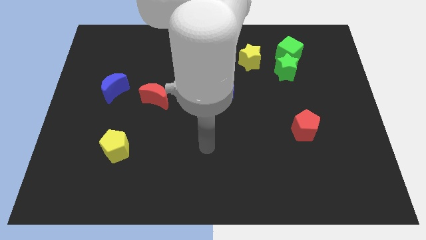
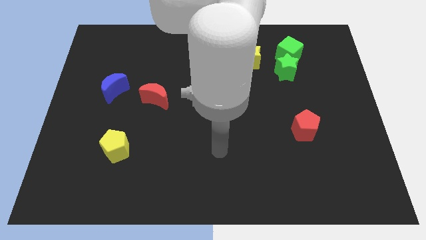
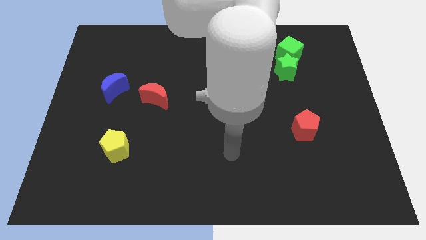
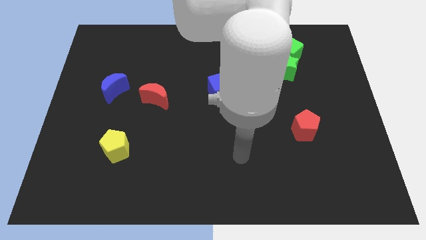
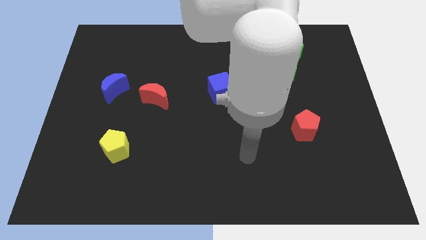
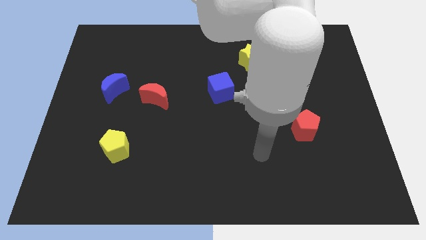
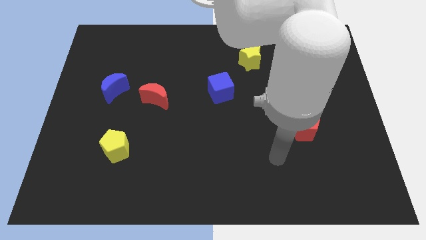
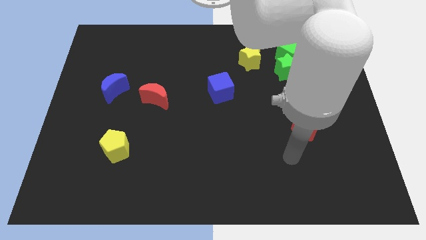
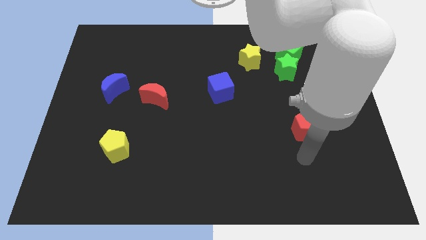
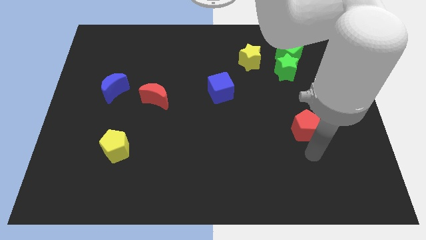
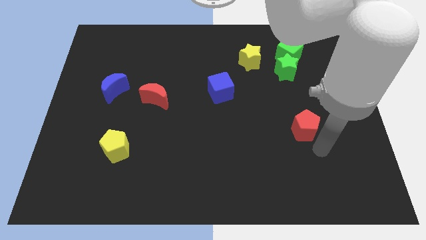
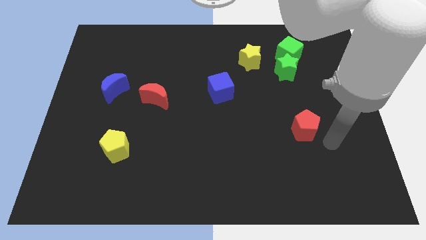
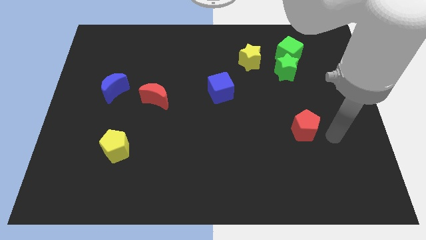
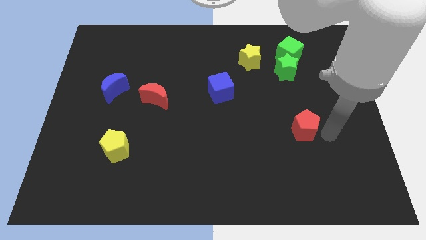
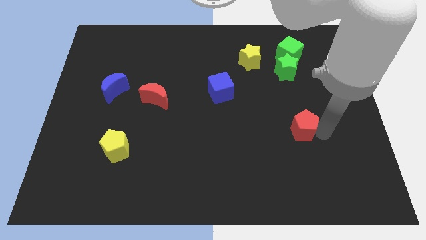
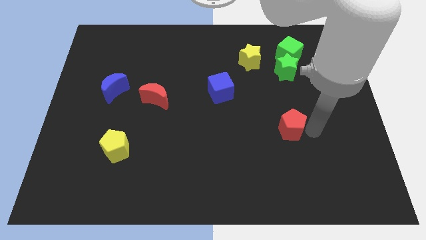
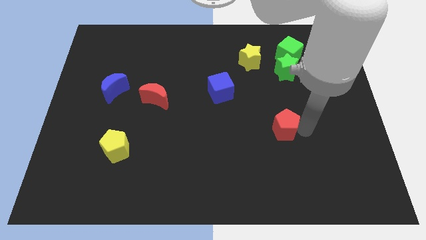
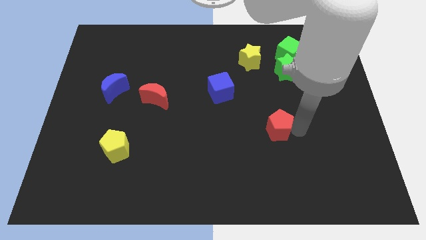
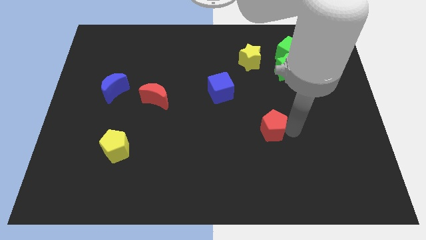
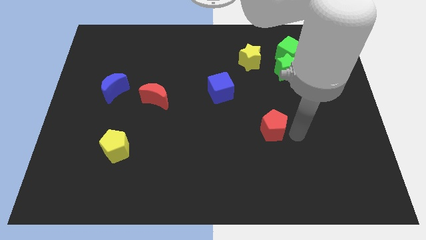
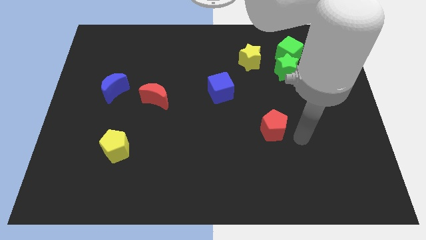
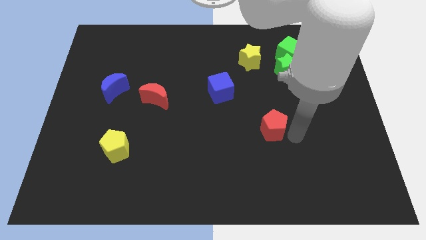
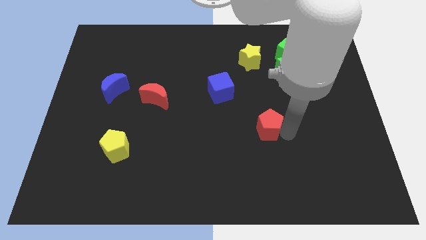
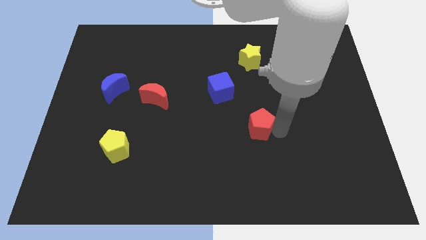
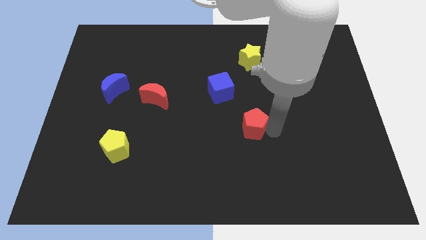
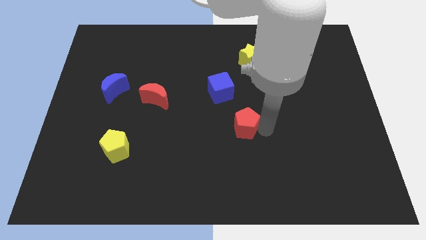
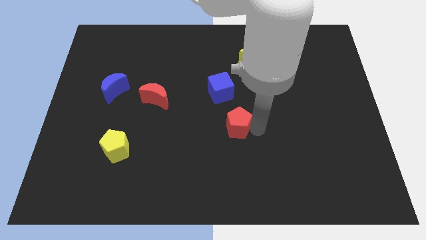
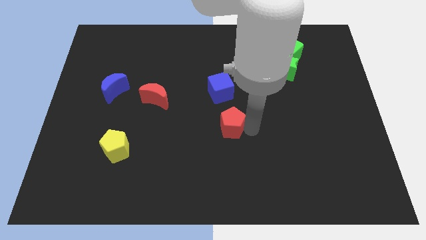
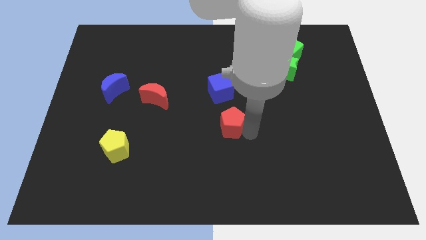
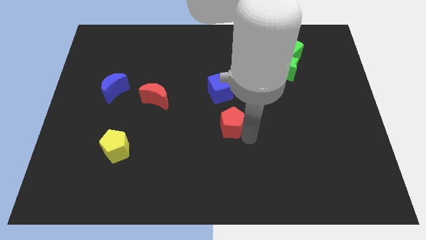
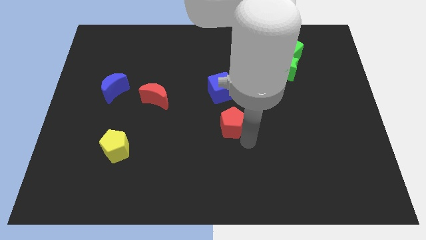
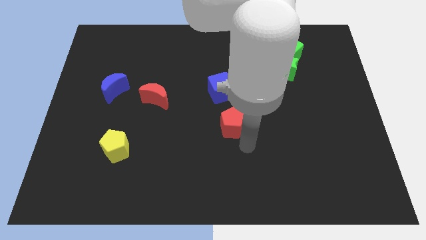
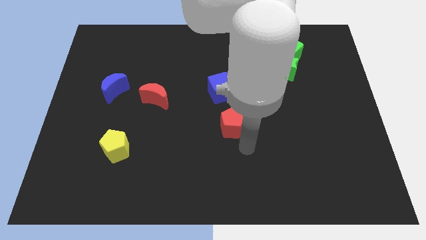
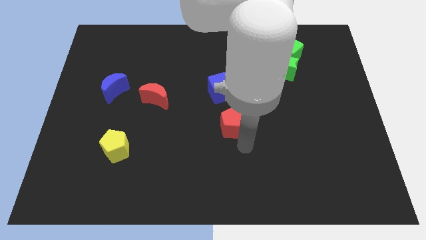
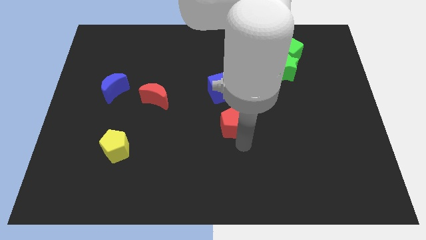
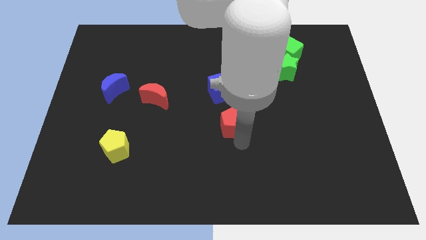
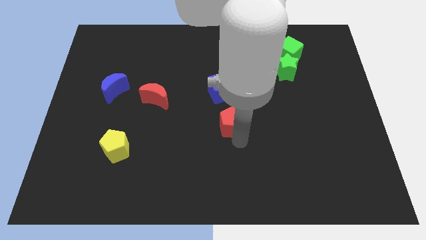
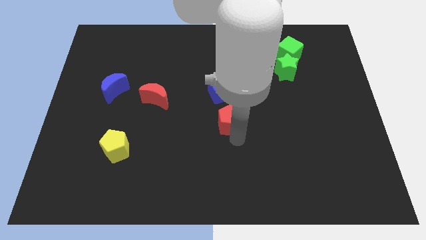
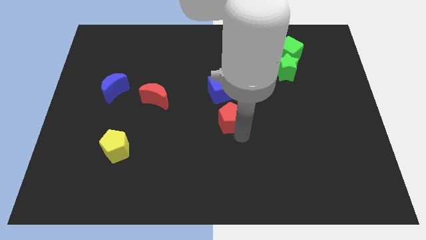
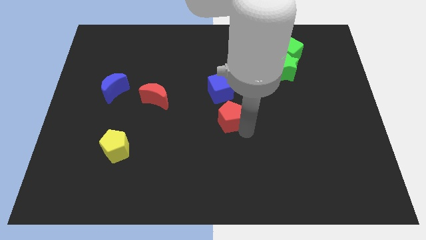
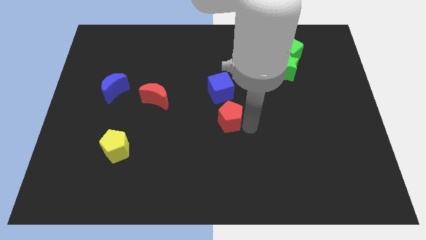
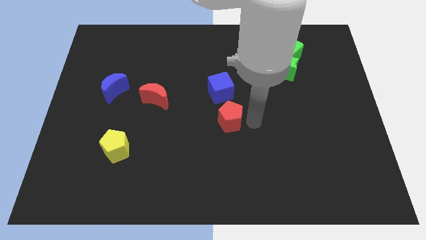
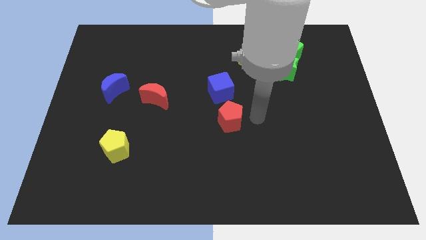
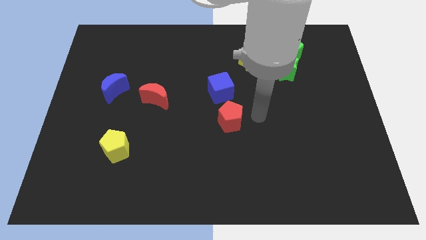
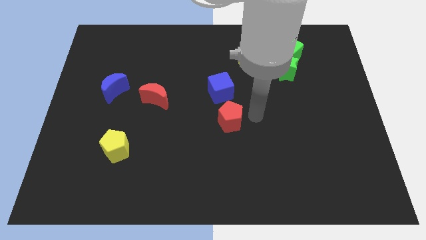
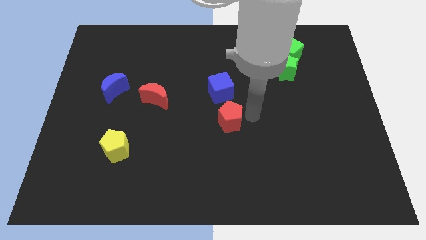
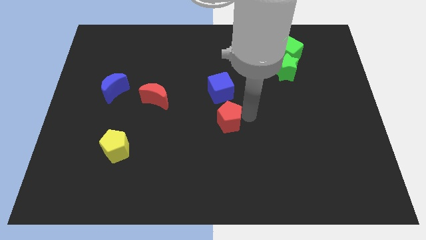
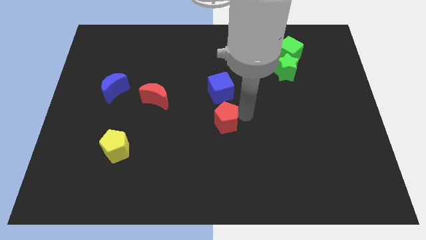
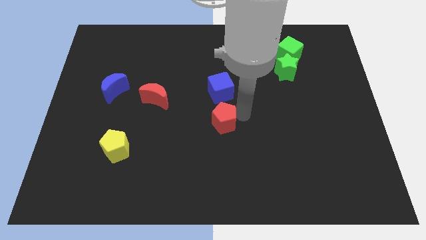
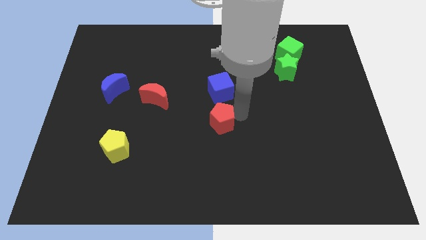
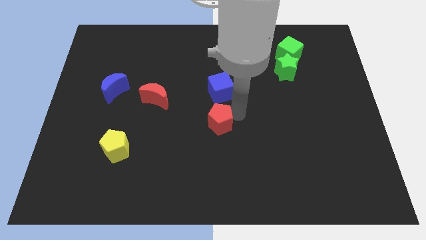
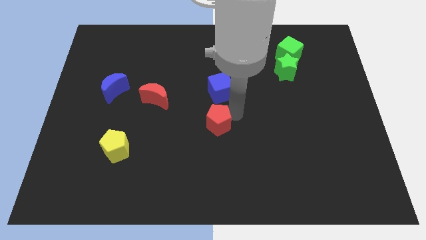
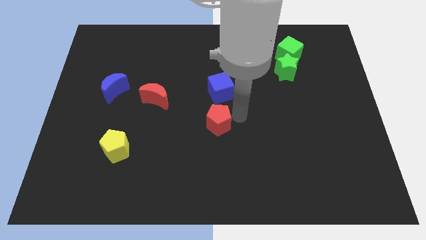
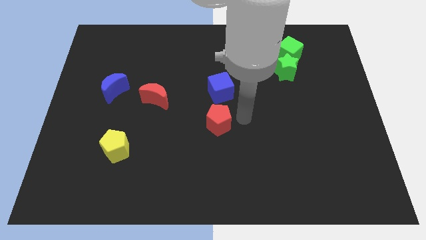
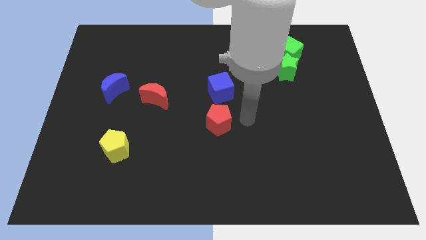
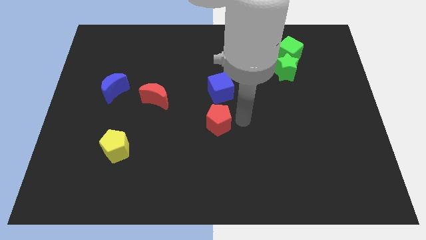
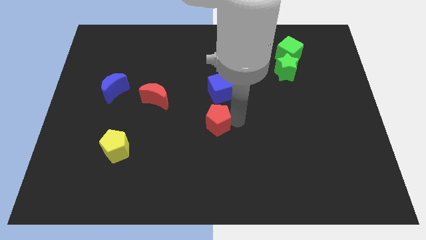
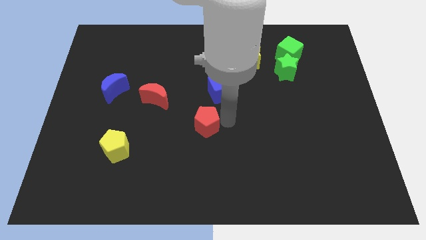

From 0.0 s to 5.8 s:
push the red pentagon left

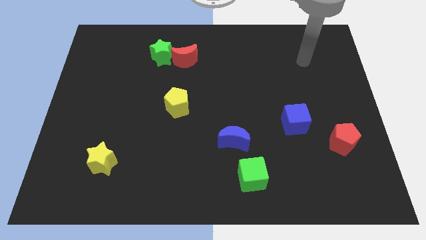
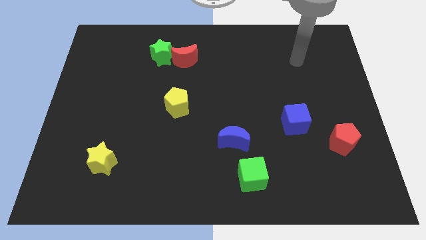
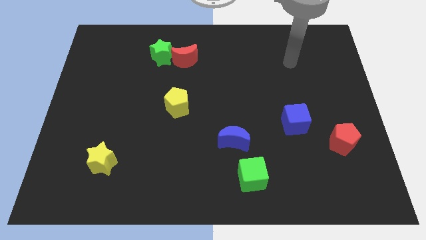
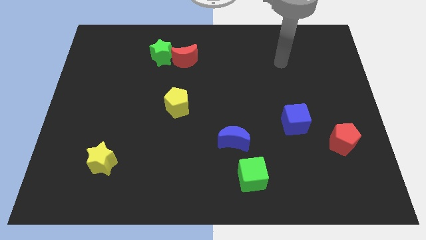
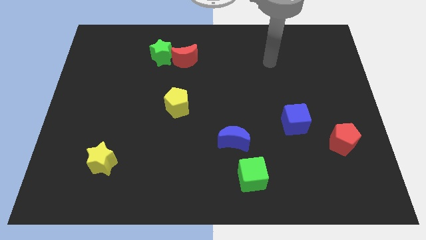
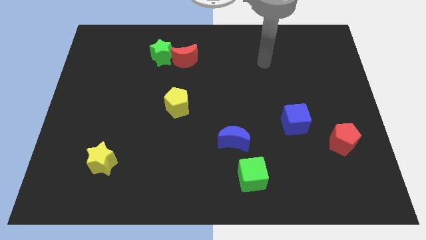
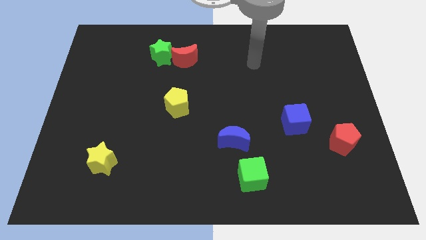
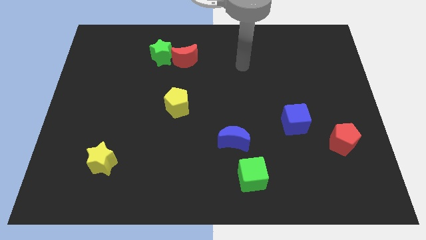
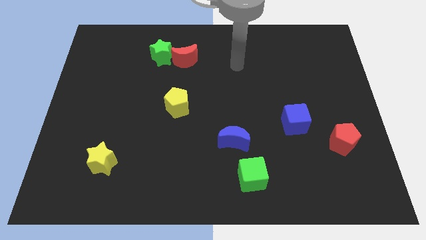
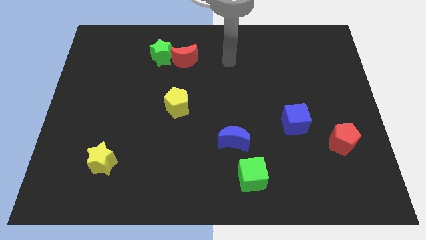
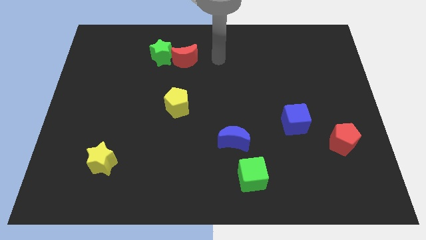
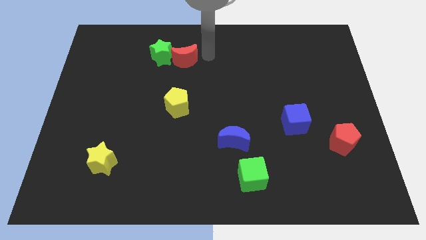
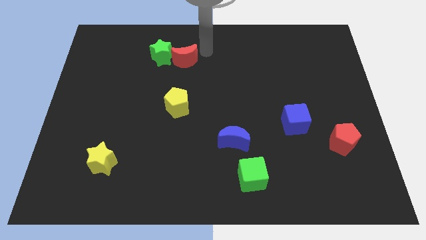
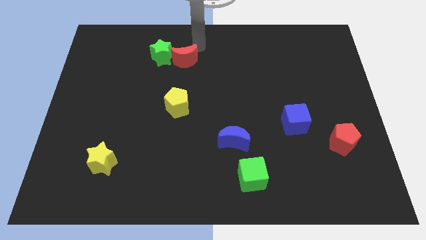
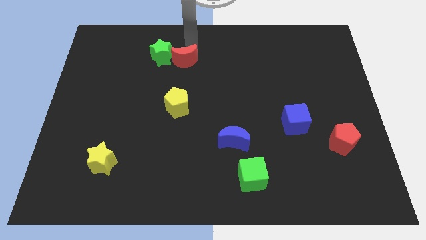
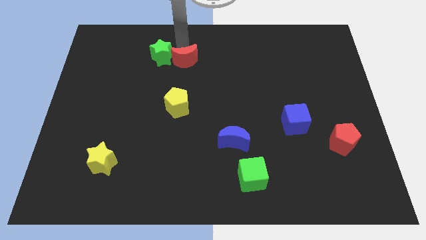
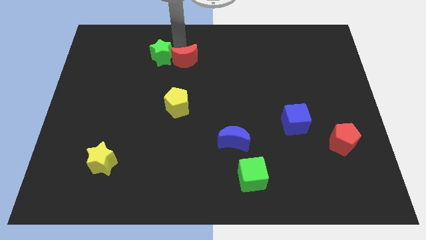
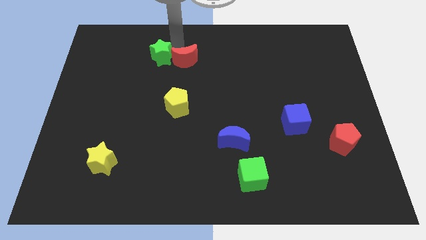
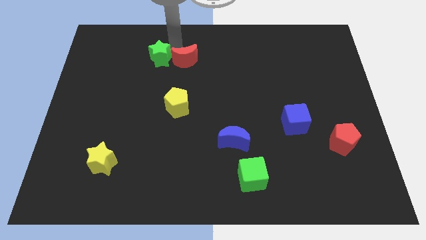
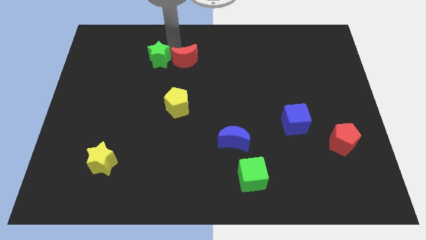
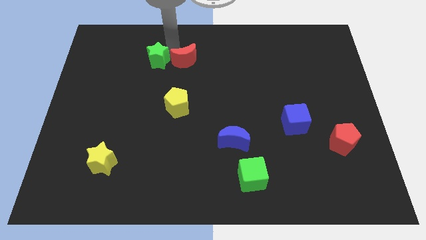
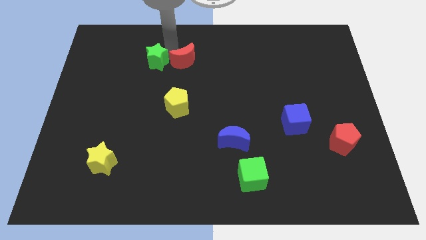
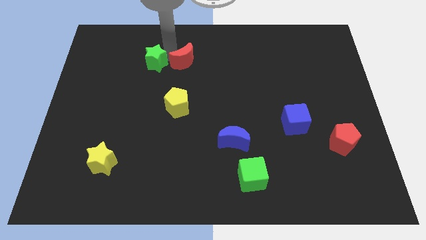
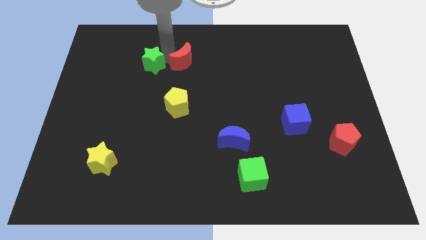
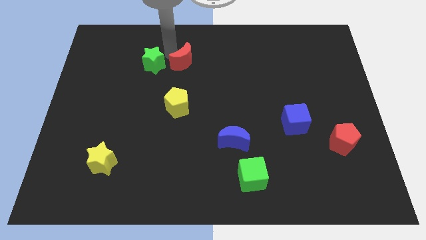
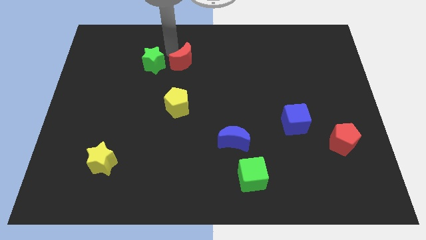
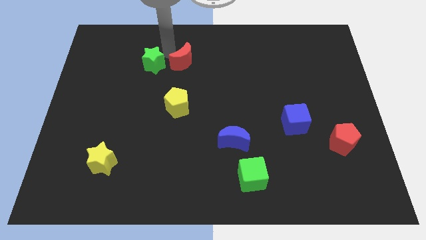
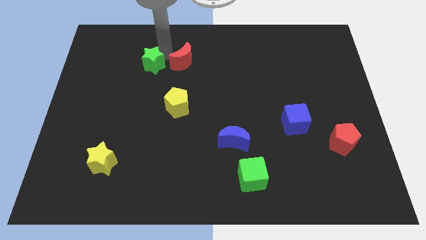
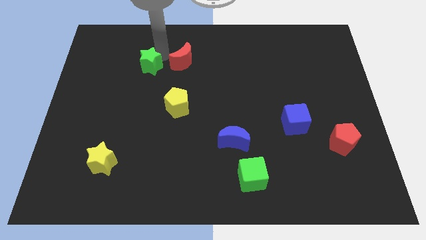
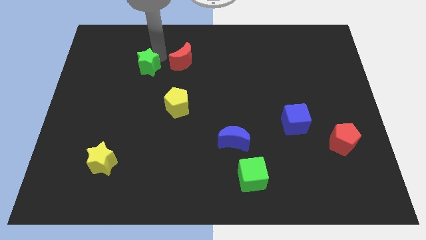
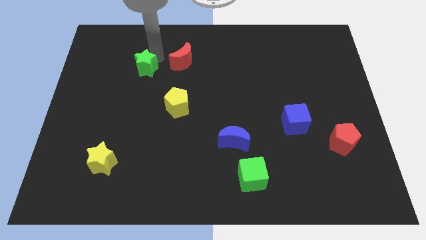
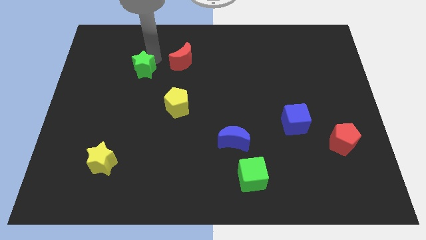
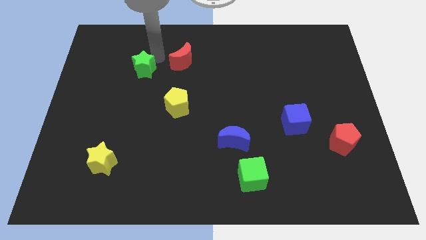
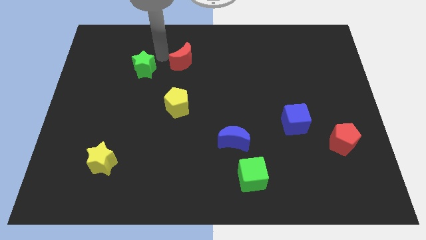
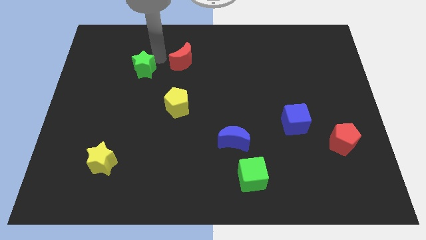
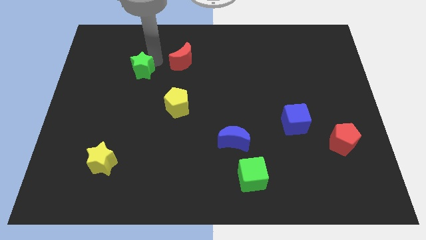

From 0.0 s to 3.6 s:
move the green star somewhat down and then left
